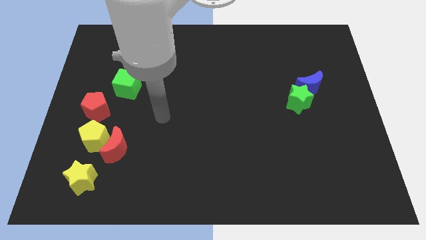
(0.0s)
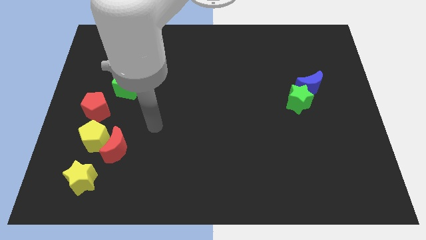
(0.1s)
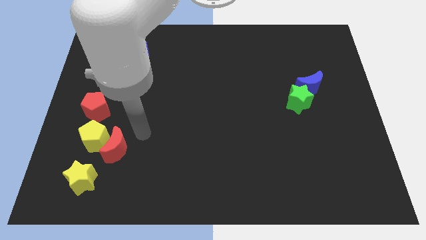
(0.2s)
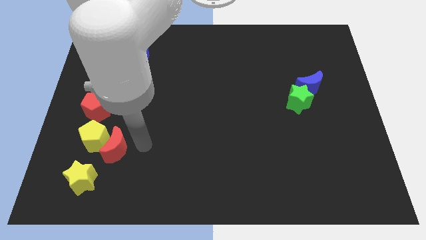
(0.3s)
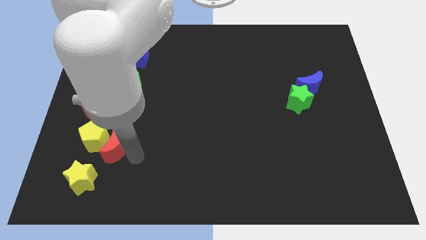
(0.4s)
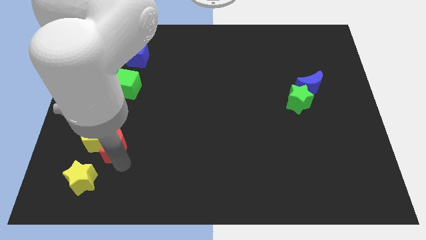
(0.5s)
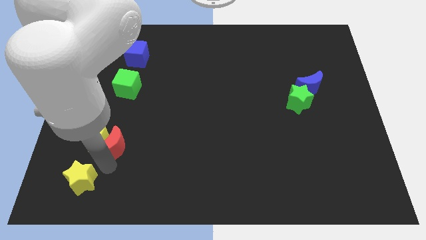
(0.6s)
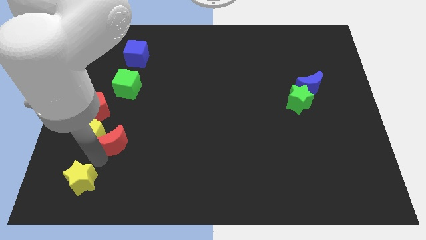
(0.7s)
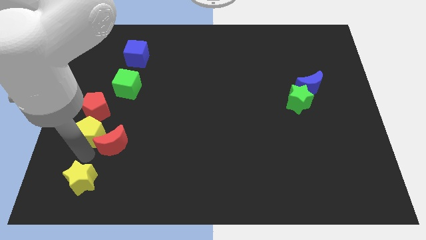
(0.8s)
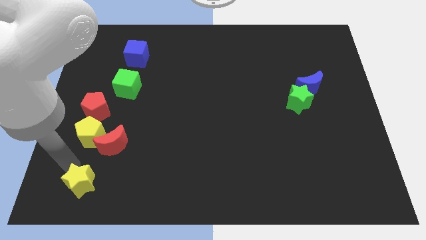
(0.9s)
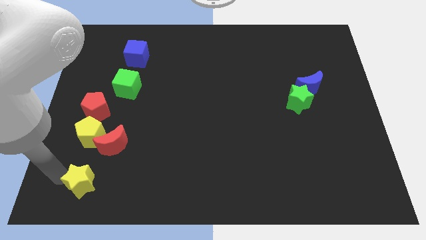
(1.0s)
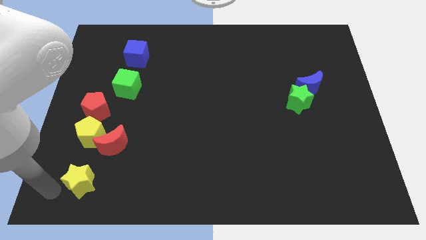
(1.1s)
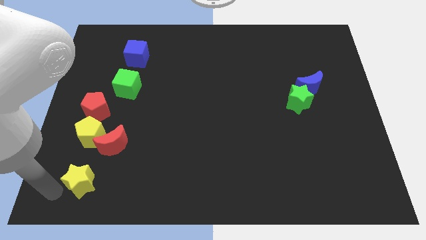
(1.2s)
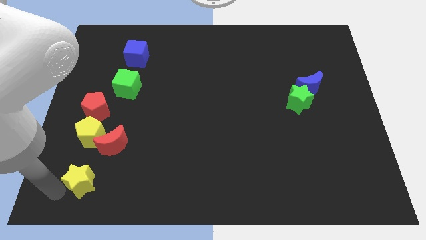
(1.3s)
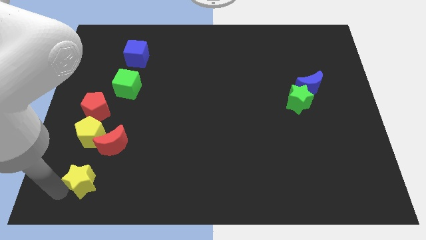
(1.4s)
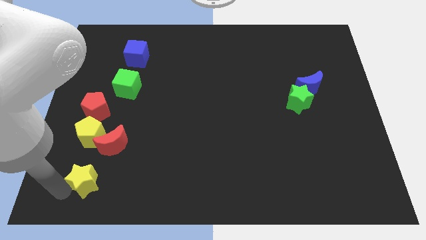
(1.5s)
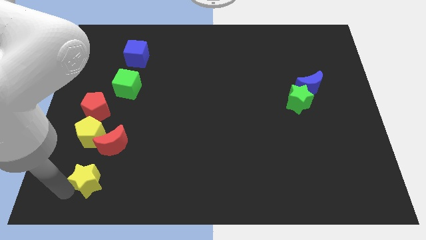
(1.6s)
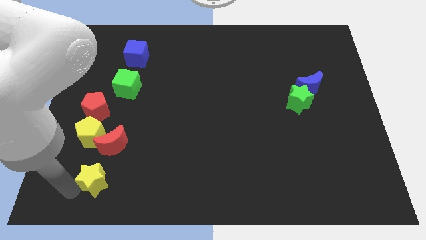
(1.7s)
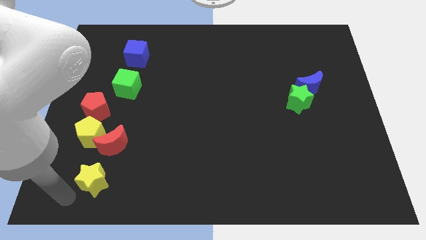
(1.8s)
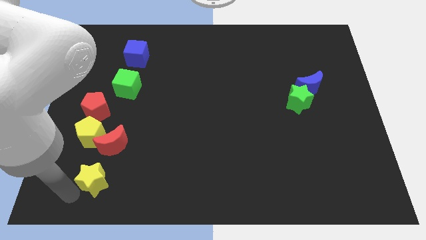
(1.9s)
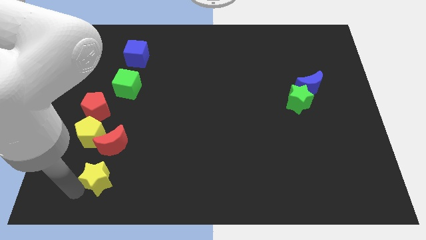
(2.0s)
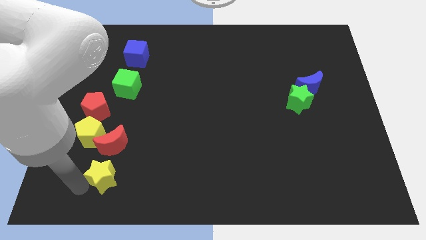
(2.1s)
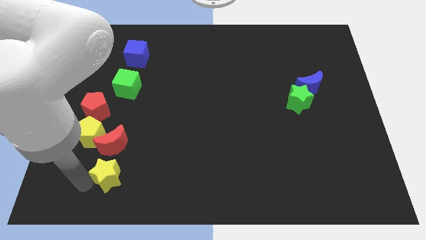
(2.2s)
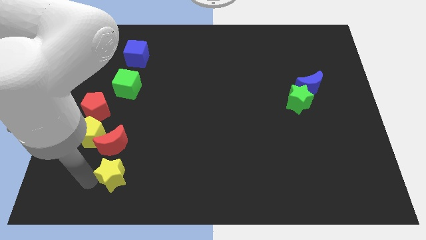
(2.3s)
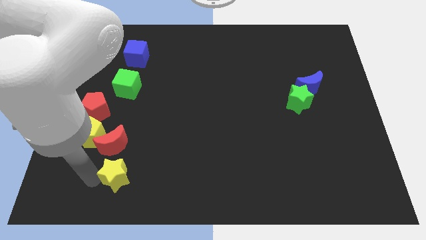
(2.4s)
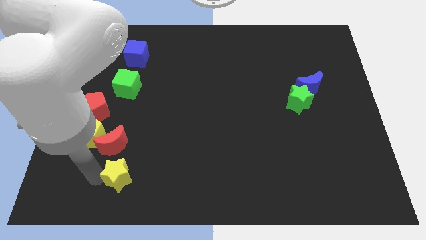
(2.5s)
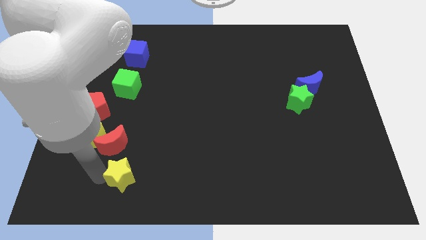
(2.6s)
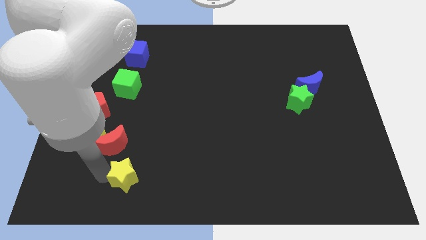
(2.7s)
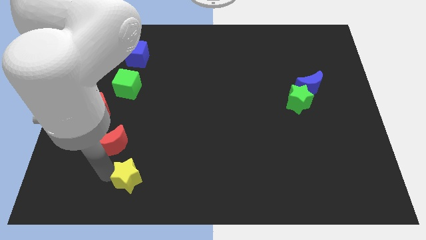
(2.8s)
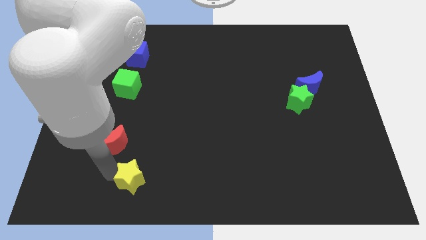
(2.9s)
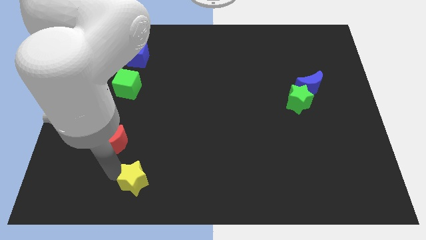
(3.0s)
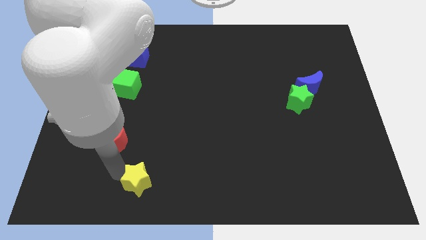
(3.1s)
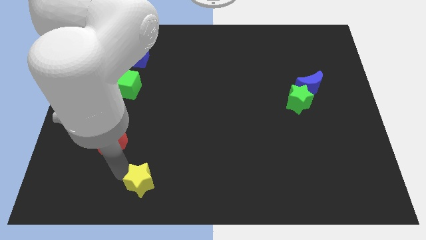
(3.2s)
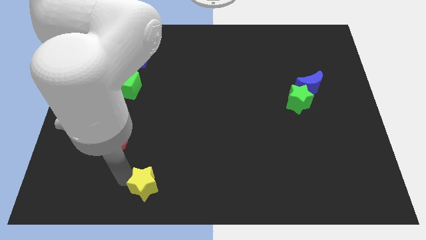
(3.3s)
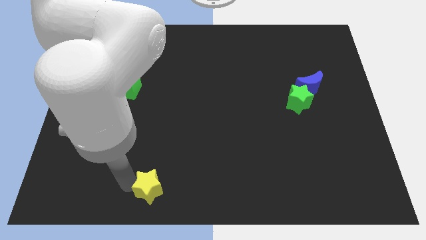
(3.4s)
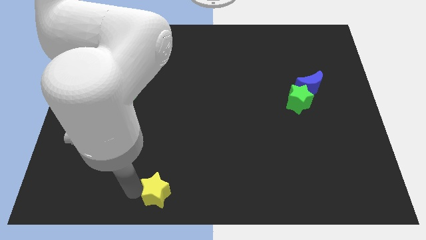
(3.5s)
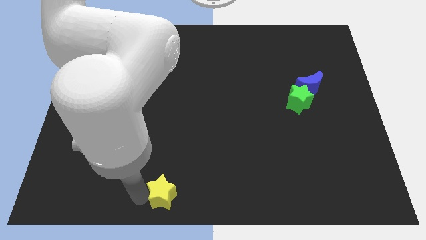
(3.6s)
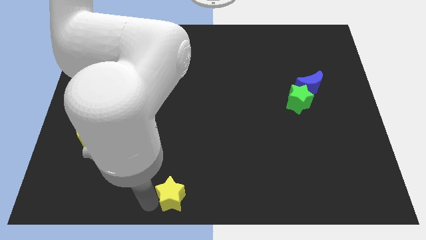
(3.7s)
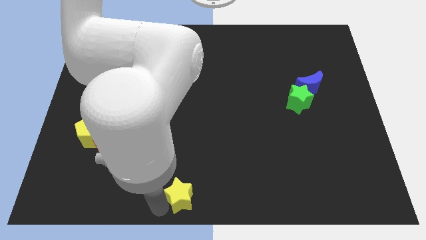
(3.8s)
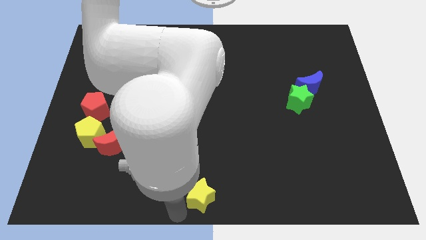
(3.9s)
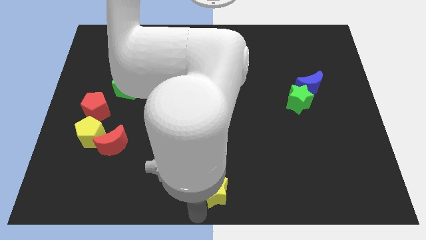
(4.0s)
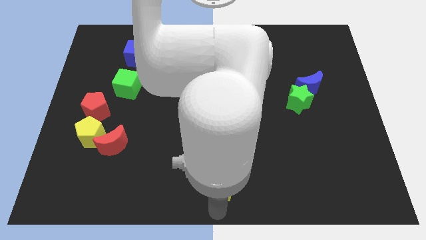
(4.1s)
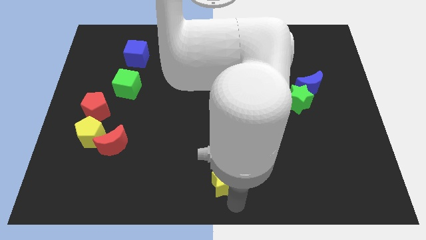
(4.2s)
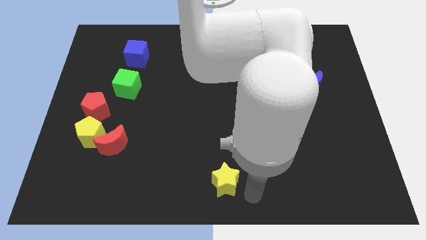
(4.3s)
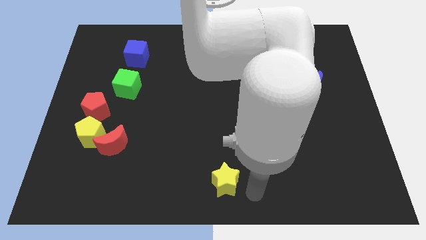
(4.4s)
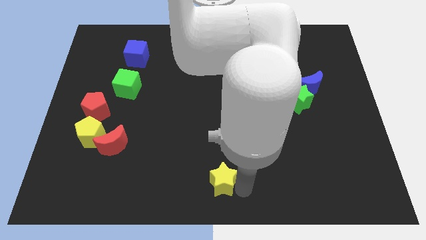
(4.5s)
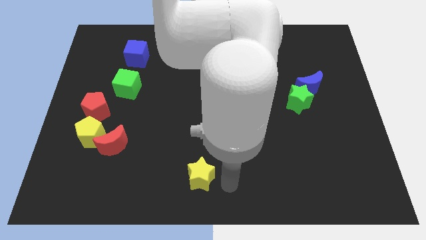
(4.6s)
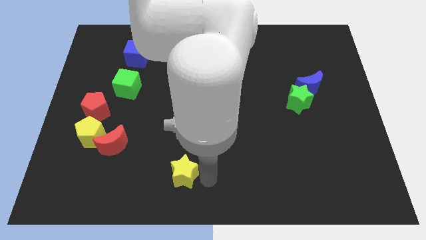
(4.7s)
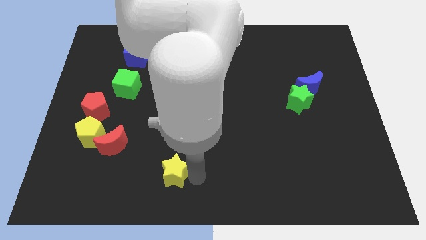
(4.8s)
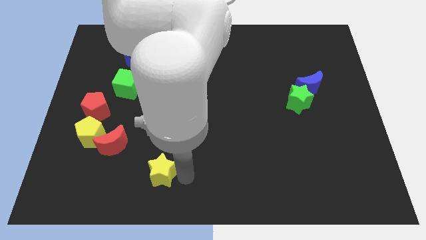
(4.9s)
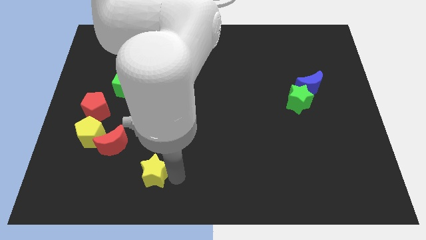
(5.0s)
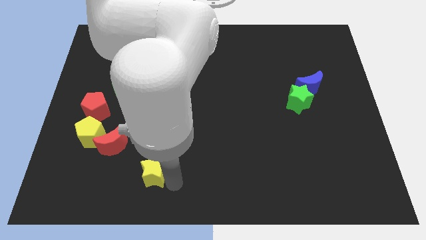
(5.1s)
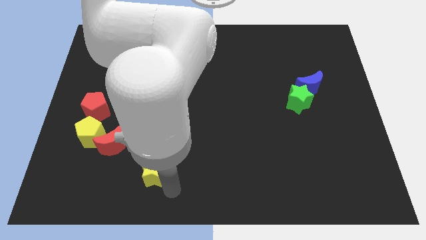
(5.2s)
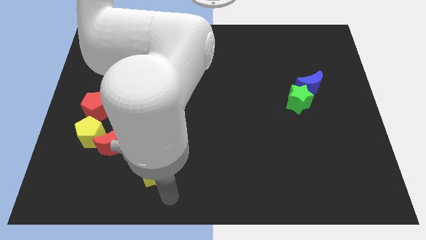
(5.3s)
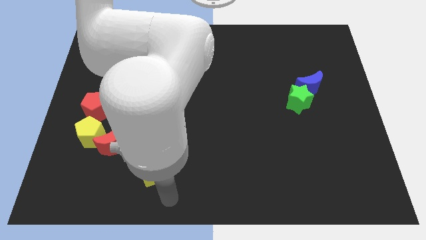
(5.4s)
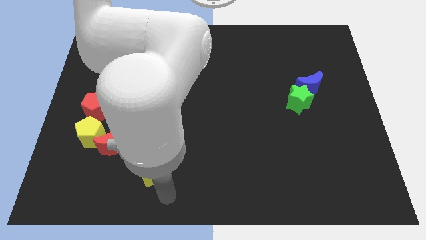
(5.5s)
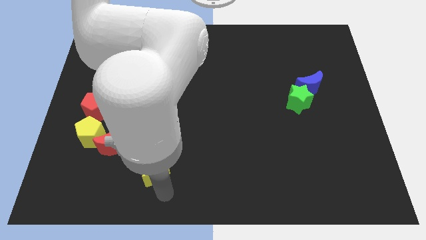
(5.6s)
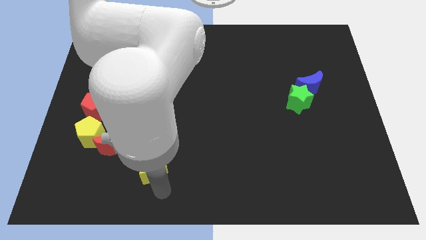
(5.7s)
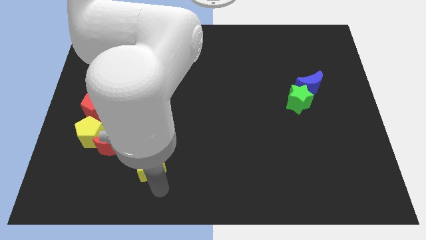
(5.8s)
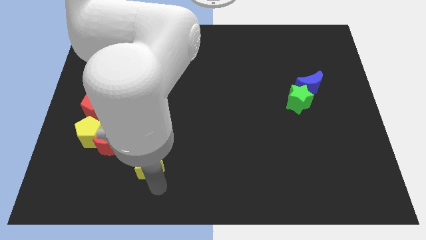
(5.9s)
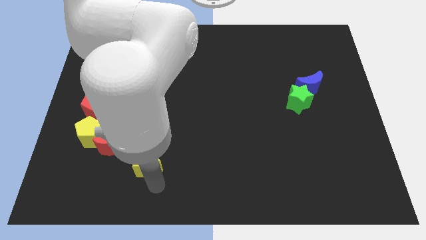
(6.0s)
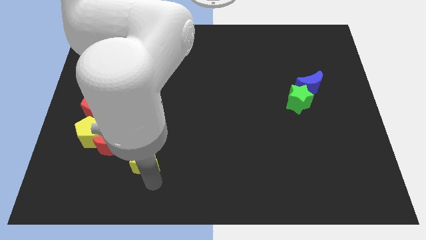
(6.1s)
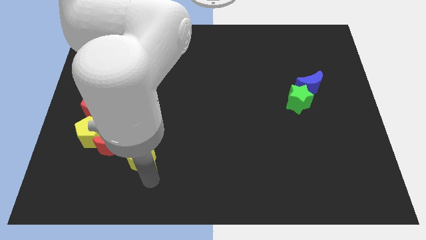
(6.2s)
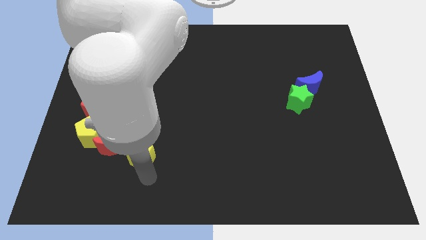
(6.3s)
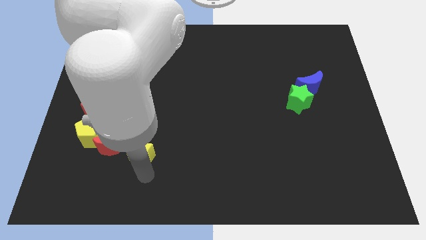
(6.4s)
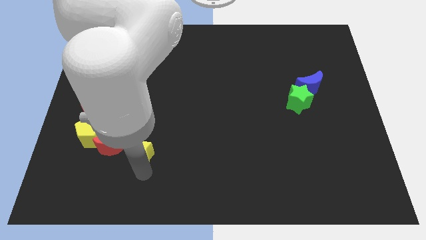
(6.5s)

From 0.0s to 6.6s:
slide the yellow star to the right side of the yellow pentagon

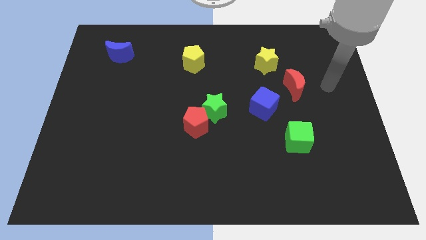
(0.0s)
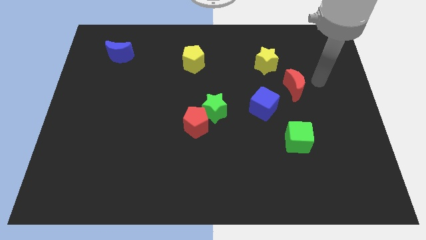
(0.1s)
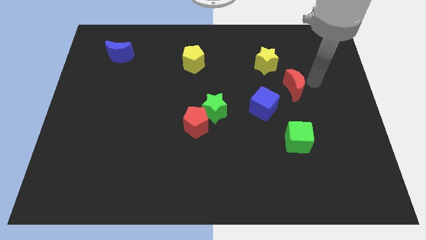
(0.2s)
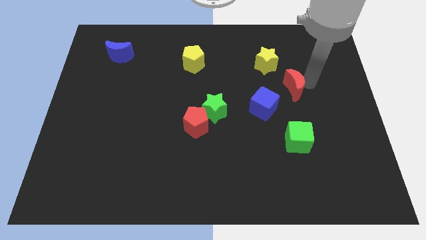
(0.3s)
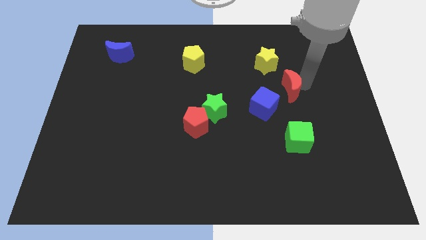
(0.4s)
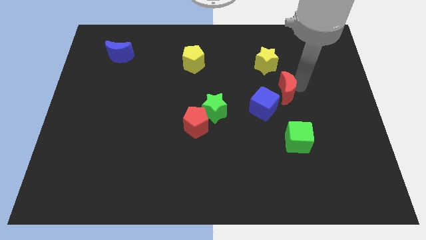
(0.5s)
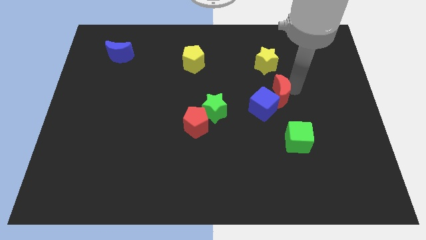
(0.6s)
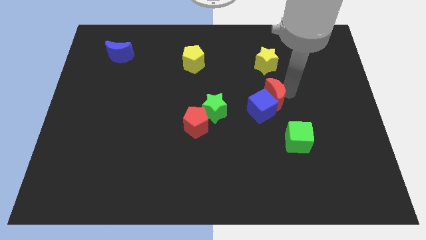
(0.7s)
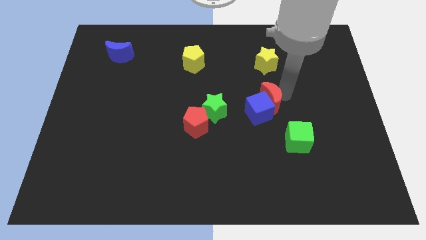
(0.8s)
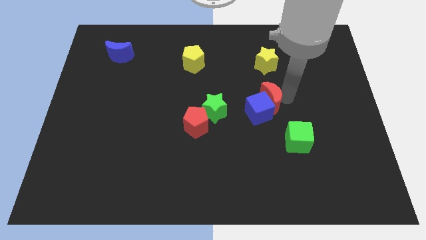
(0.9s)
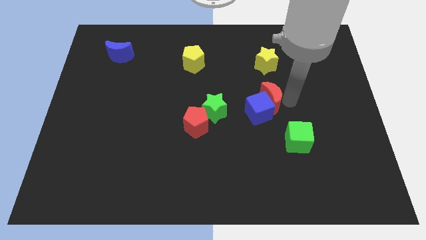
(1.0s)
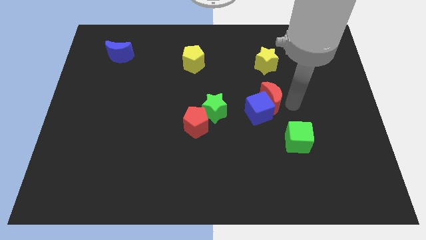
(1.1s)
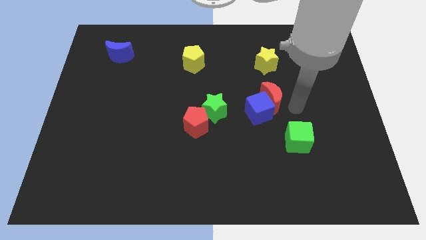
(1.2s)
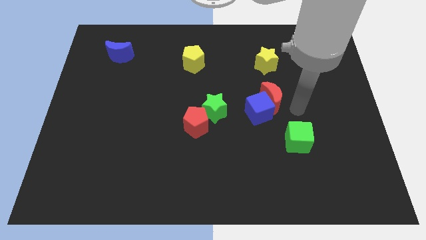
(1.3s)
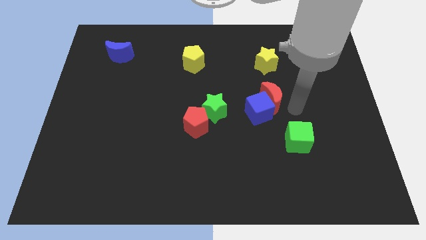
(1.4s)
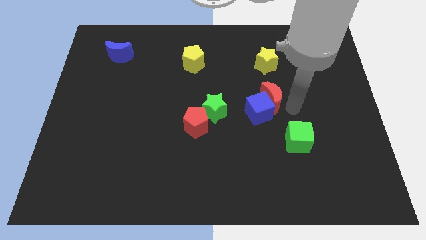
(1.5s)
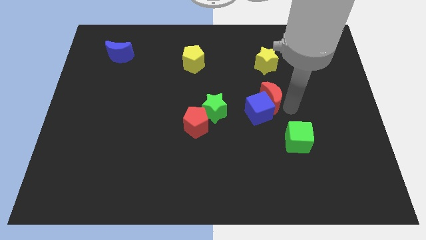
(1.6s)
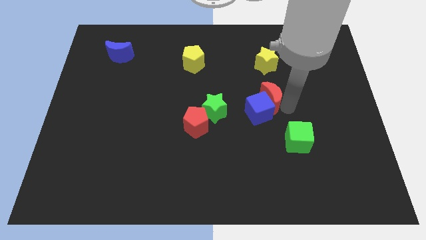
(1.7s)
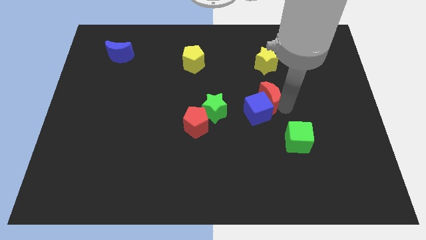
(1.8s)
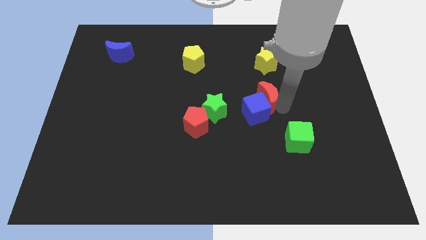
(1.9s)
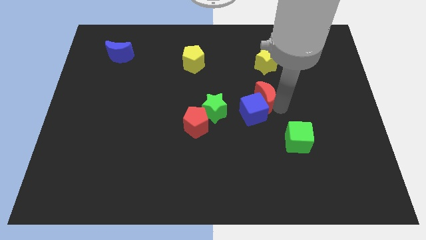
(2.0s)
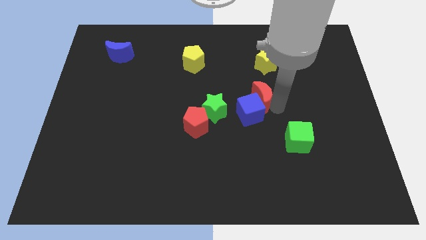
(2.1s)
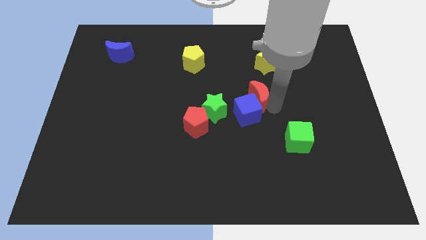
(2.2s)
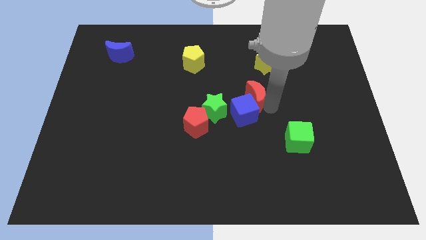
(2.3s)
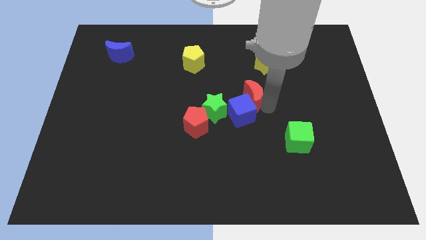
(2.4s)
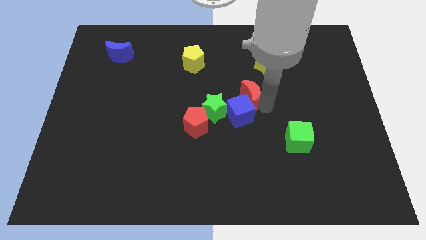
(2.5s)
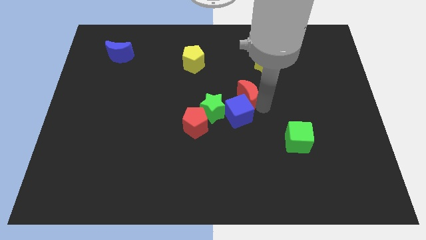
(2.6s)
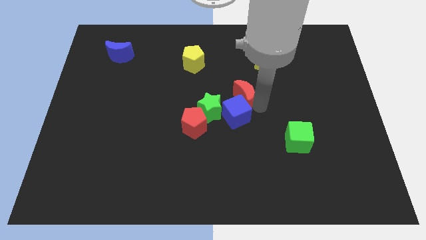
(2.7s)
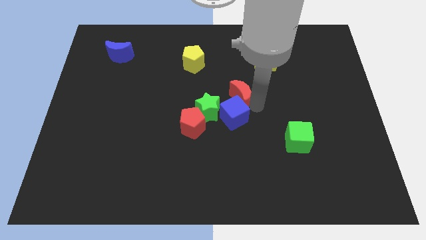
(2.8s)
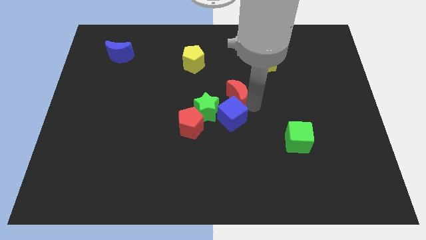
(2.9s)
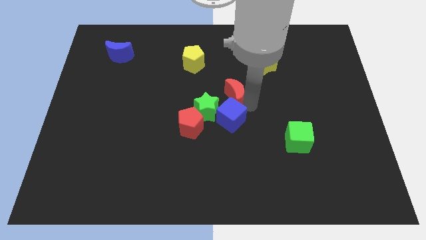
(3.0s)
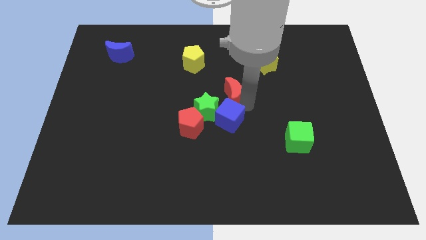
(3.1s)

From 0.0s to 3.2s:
put the red moon diagonally up and to the right of the red pentagon
